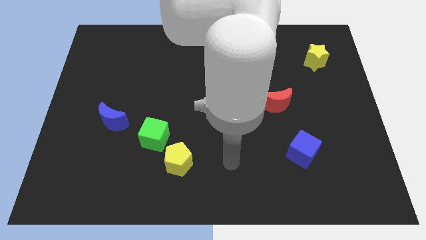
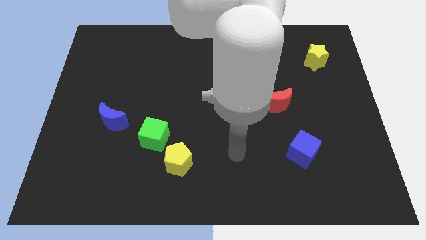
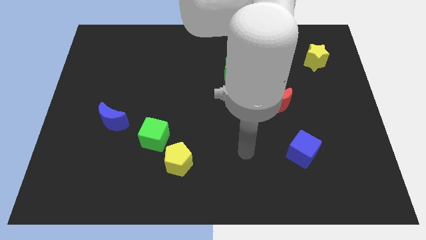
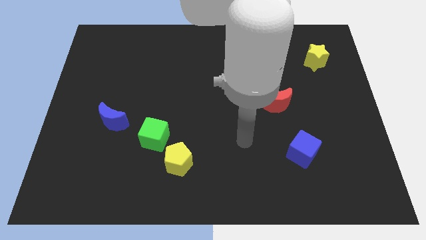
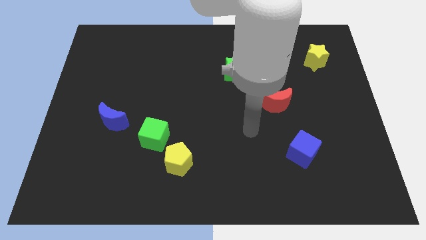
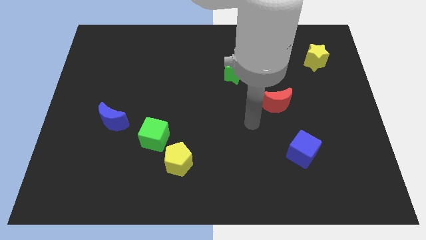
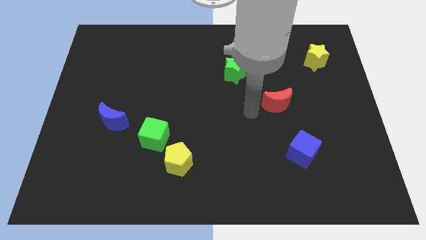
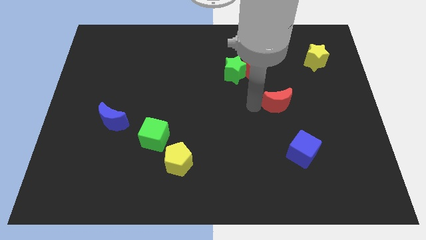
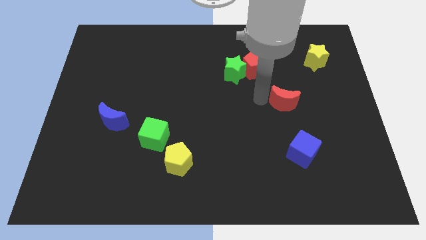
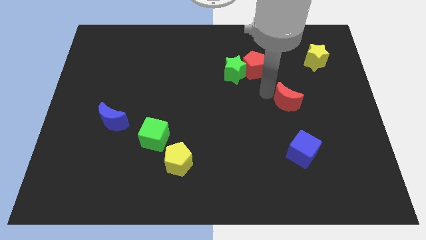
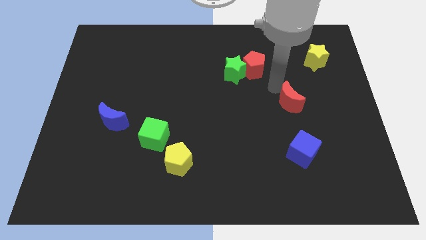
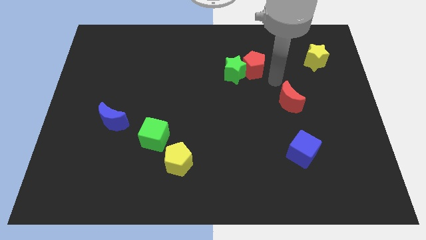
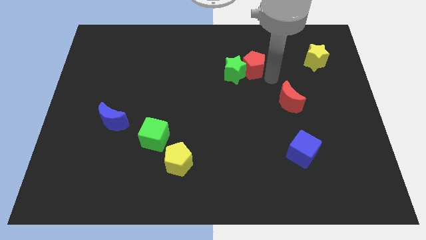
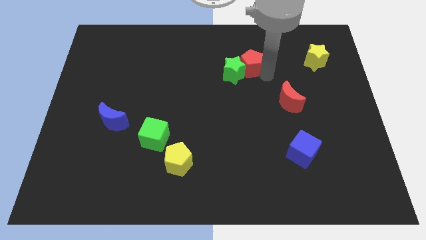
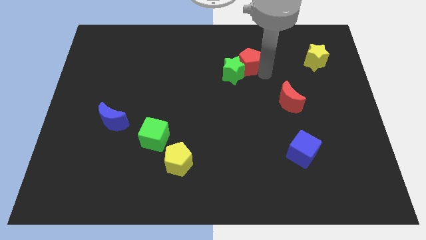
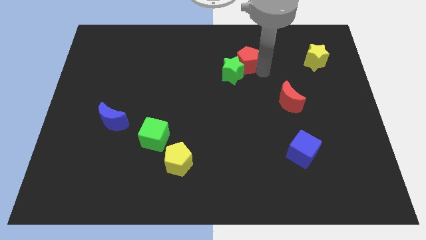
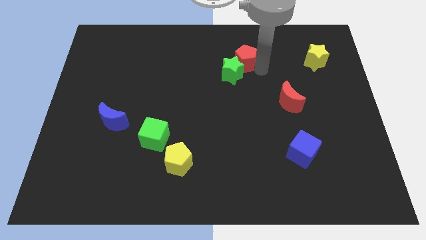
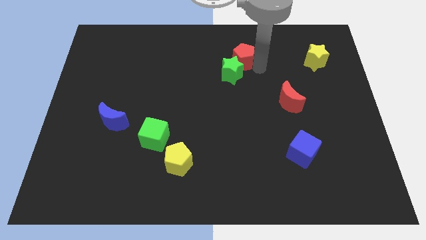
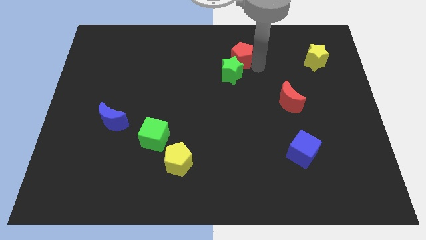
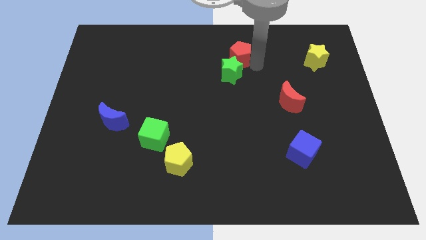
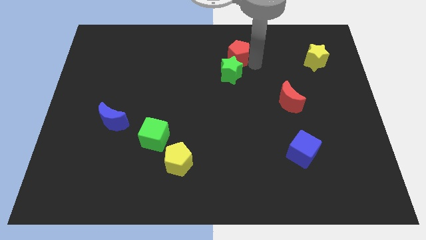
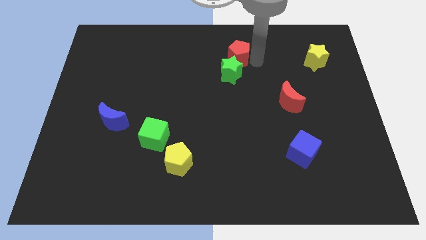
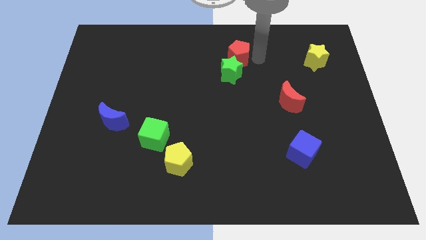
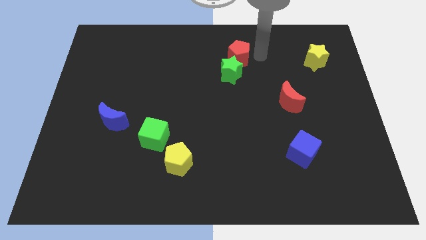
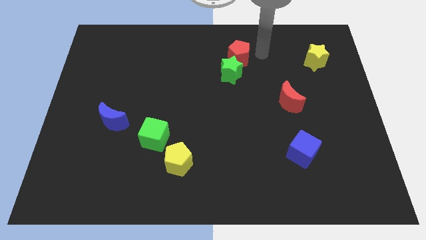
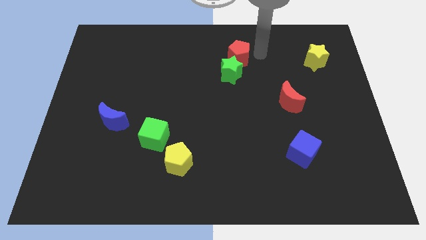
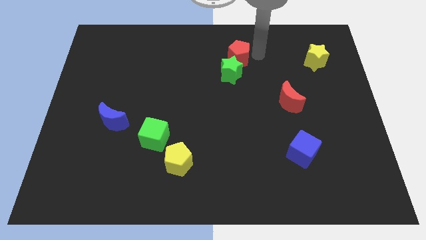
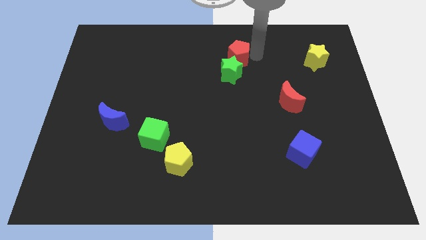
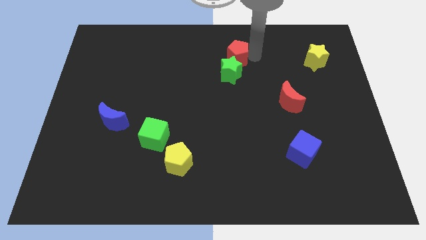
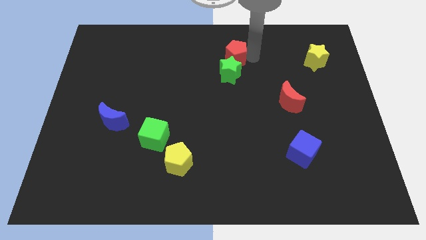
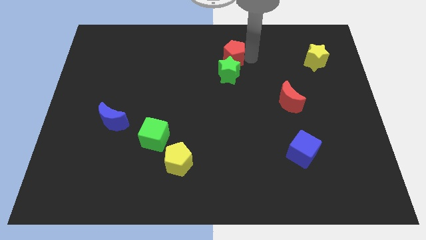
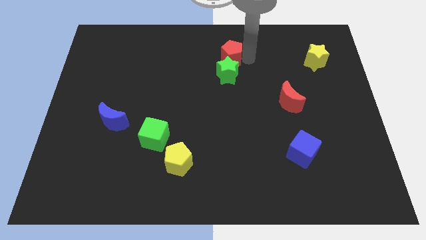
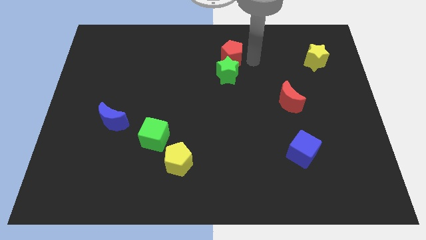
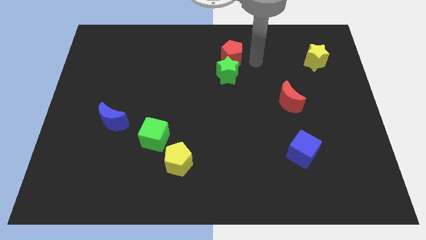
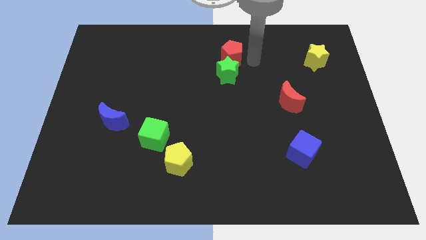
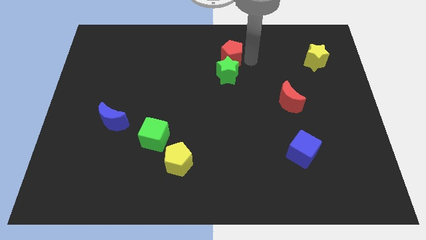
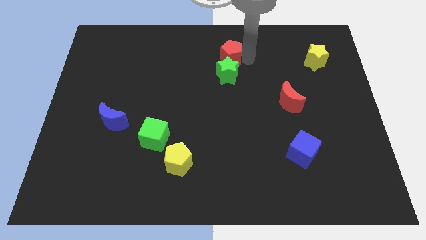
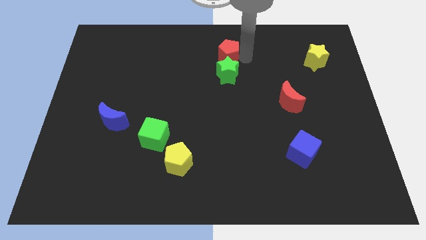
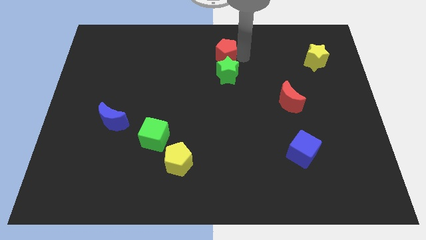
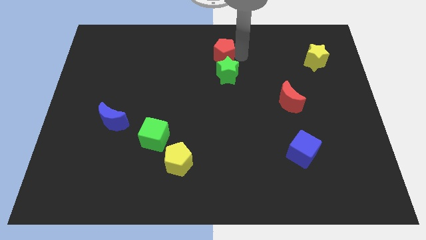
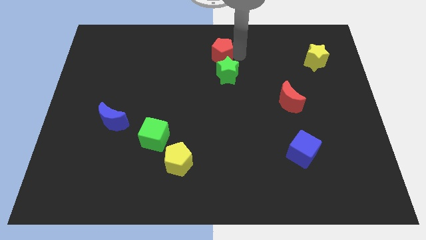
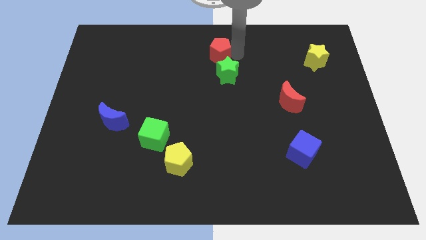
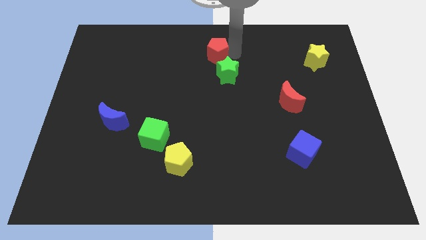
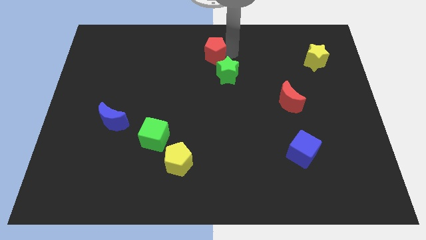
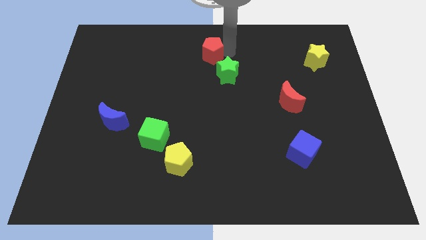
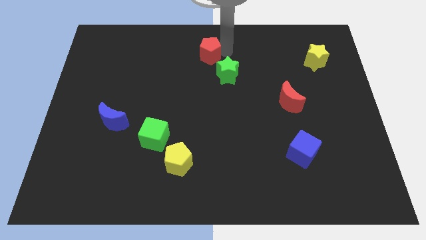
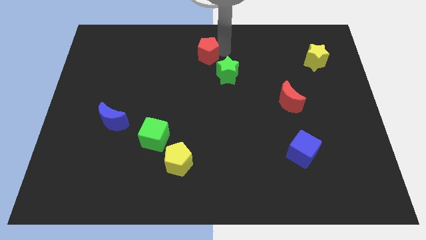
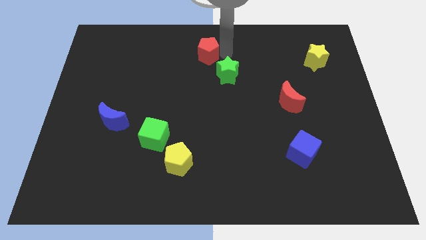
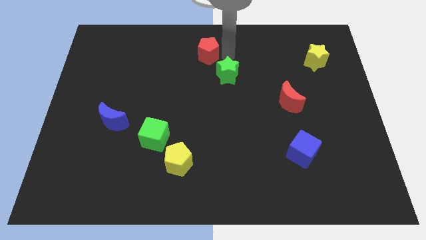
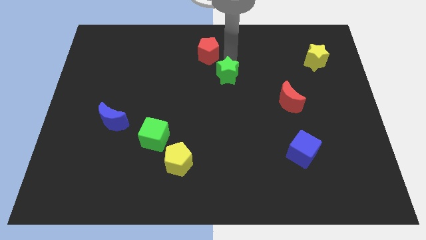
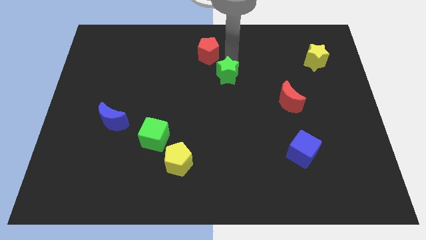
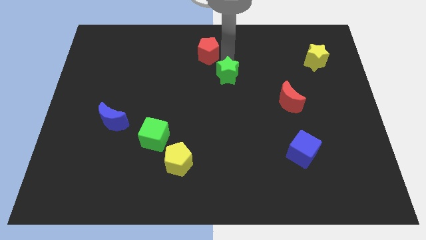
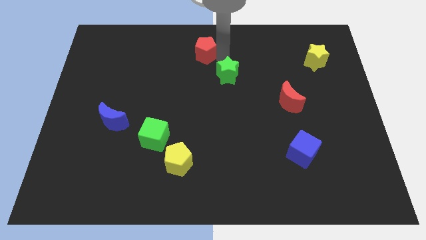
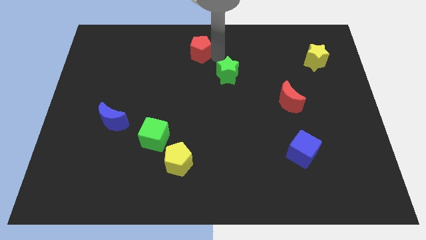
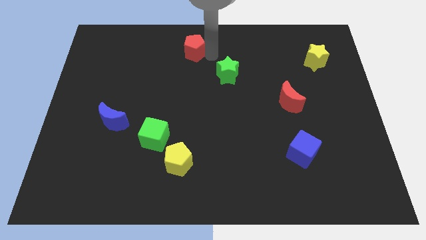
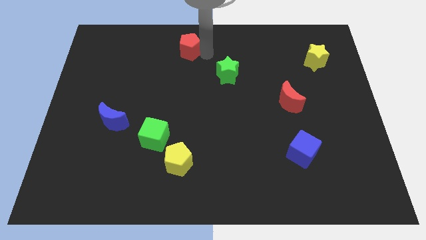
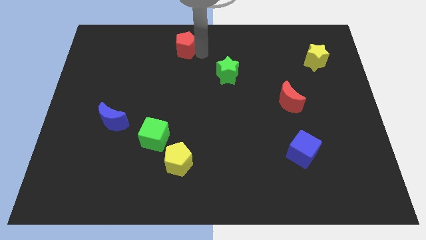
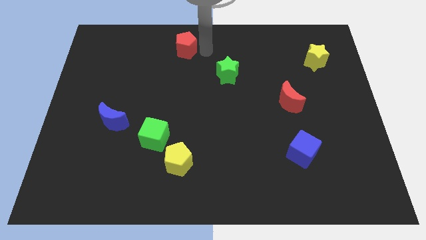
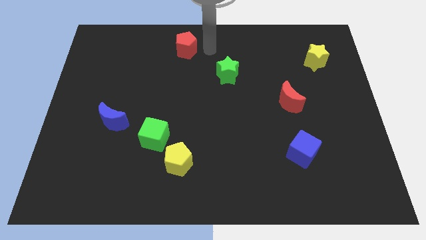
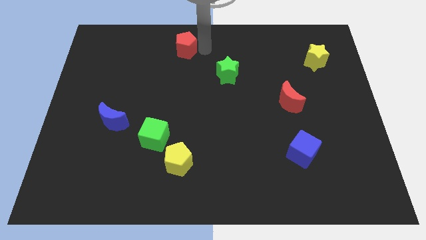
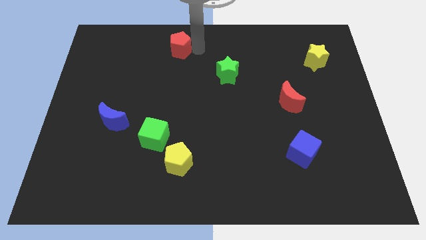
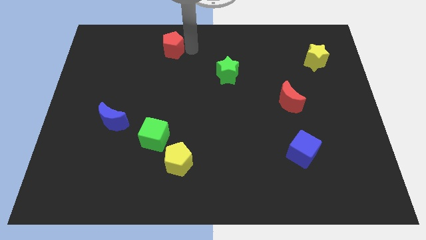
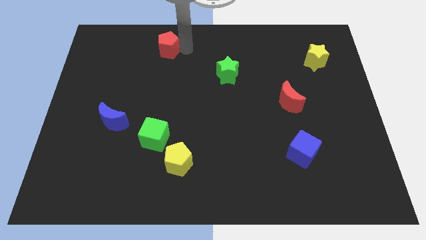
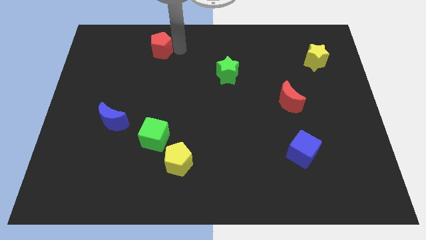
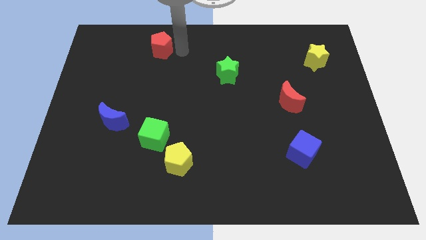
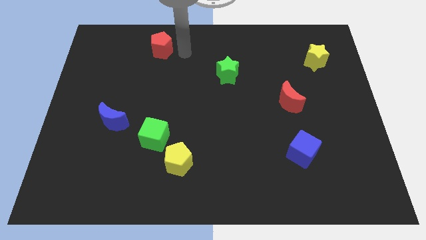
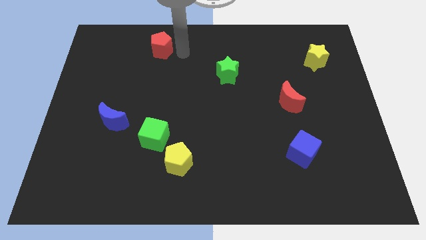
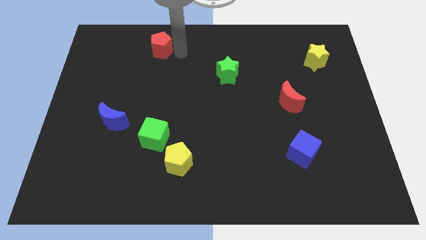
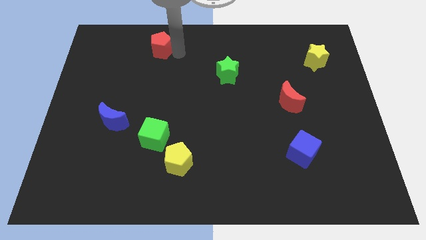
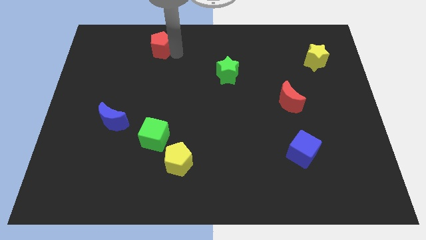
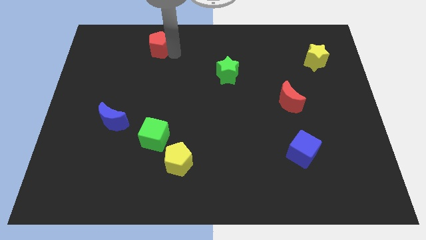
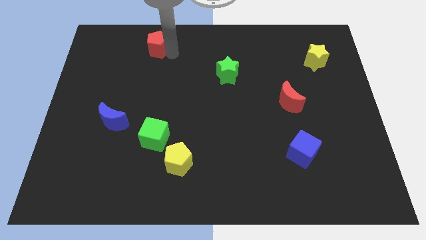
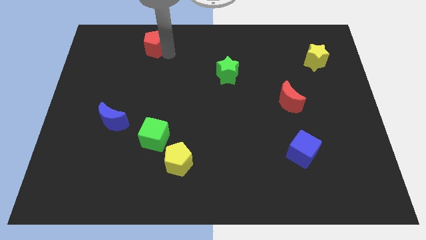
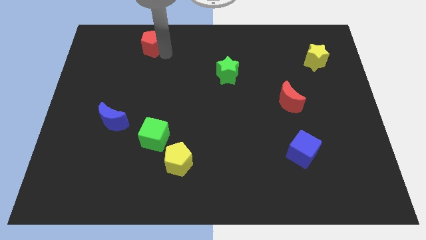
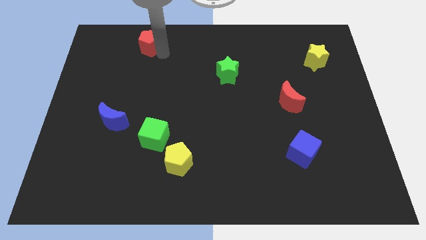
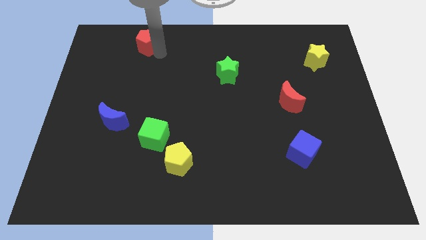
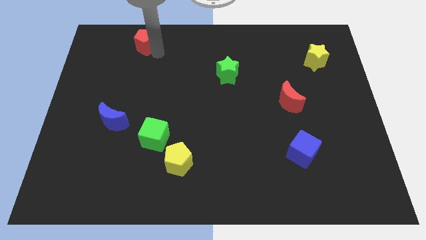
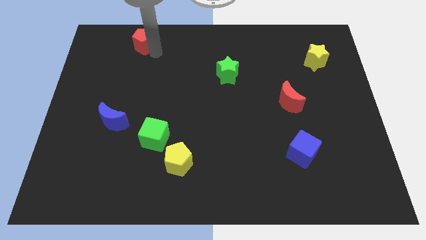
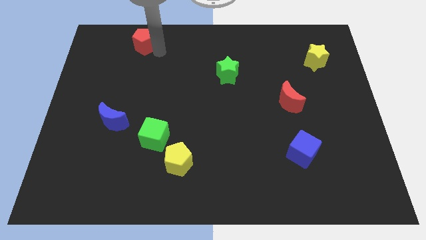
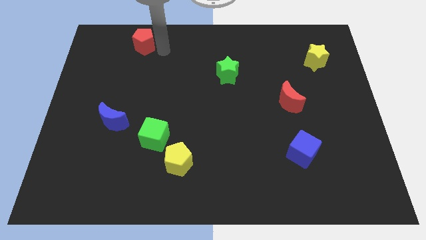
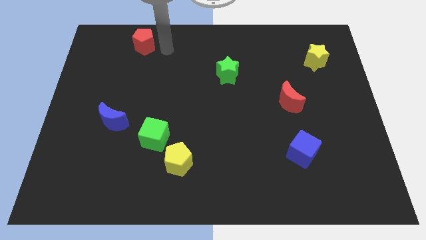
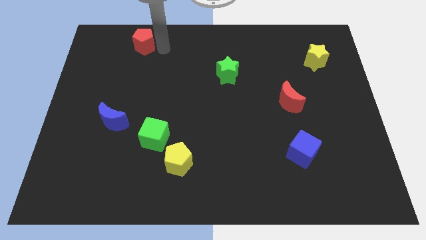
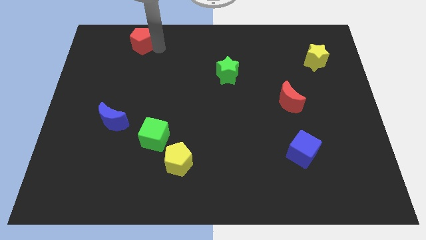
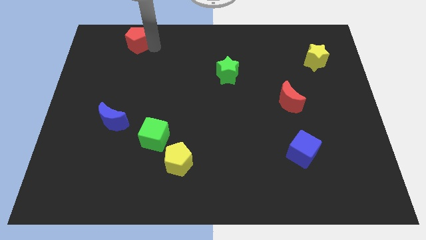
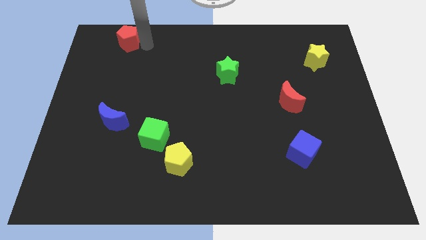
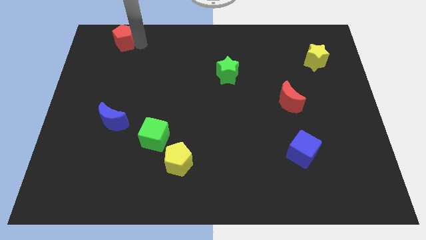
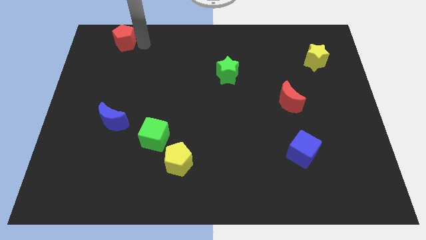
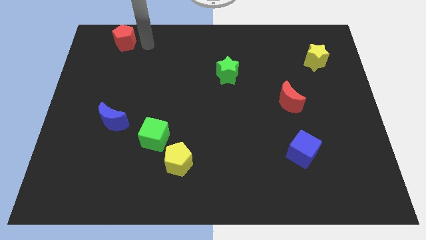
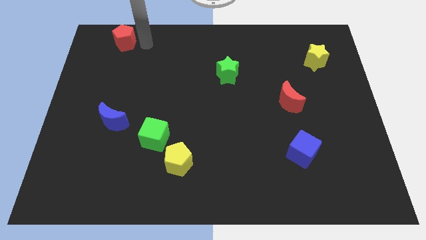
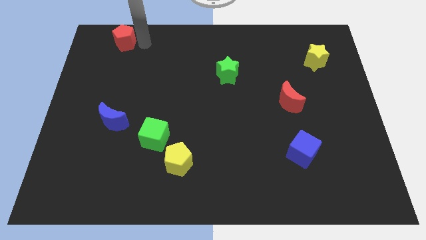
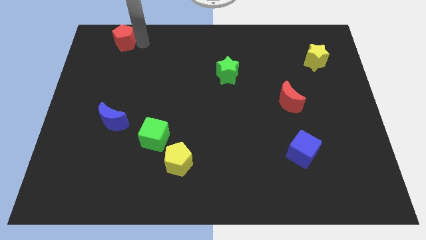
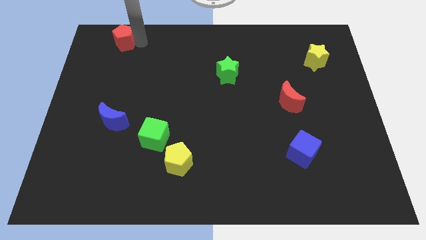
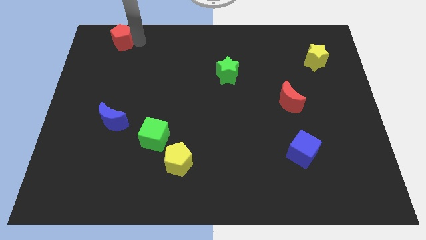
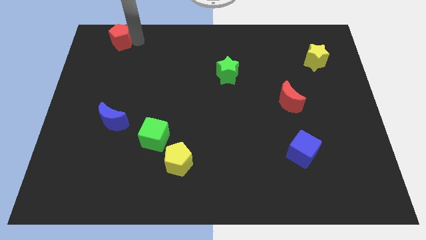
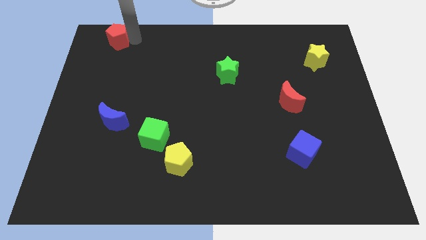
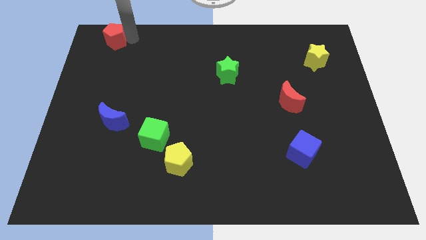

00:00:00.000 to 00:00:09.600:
put the red pentagon to the top left corner
